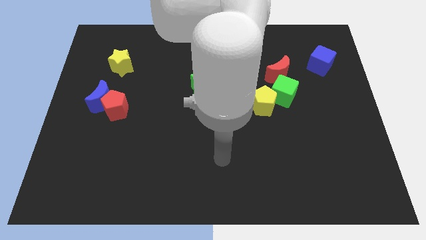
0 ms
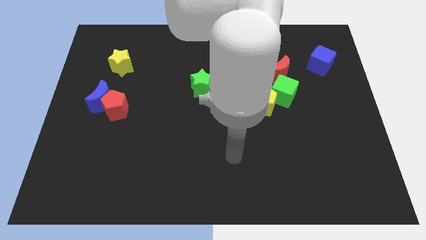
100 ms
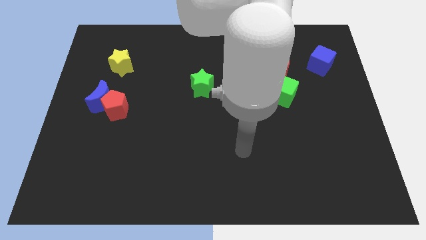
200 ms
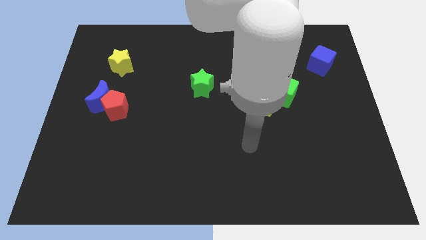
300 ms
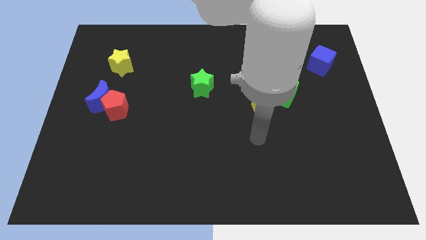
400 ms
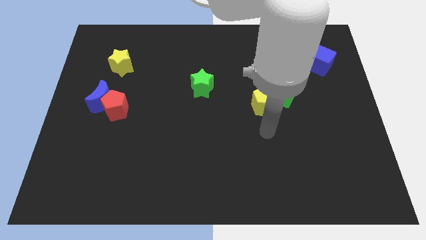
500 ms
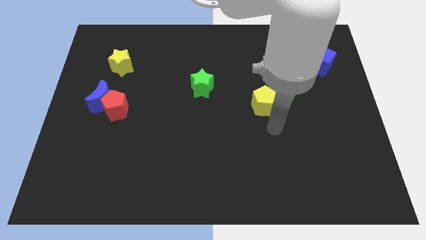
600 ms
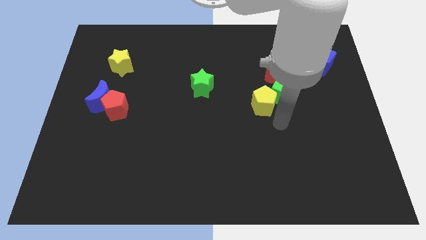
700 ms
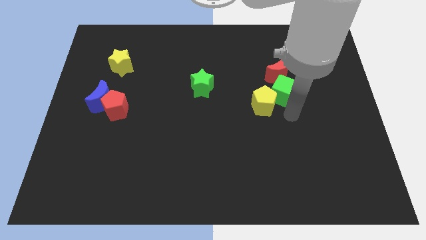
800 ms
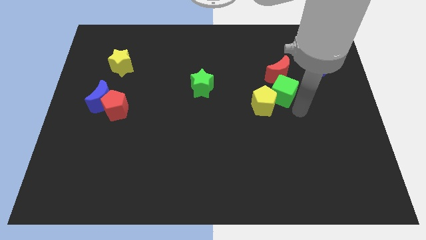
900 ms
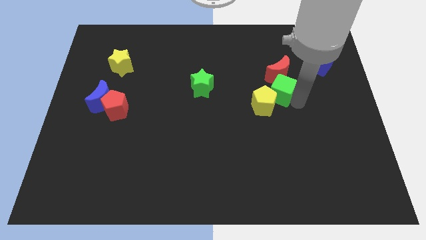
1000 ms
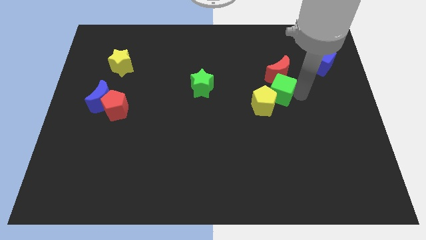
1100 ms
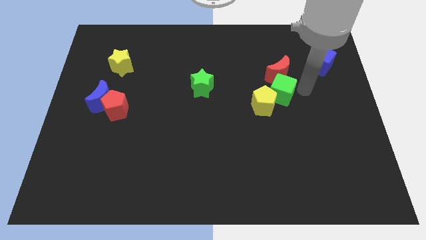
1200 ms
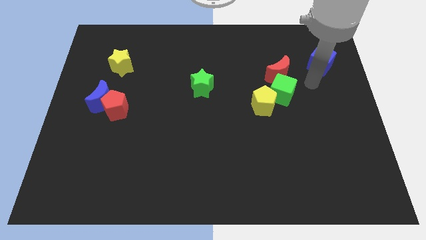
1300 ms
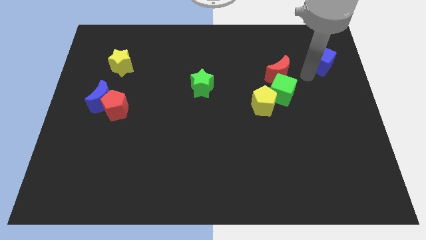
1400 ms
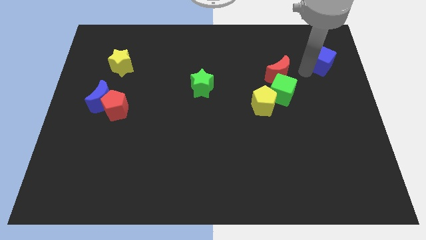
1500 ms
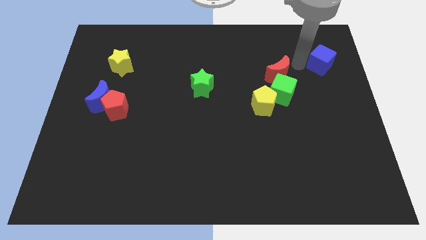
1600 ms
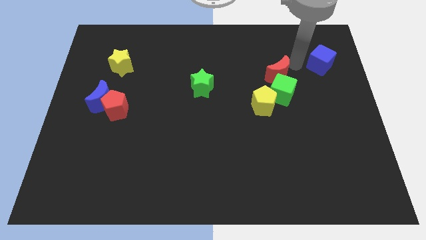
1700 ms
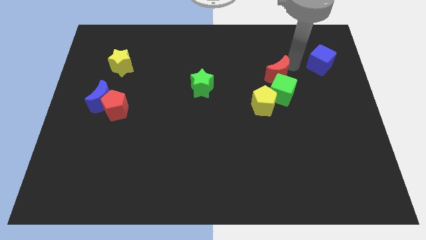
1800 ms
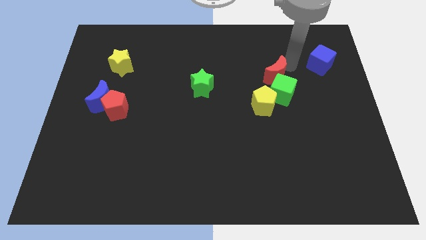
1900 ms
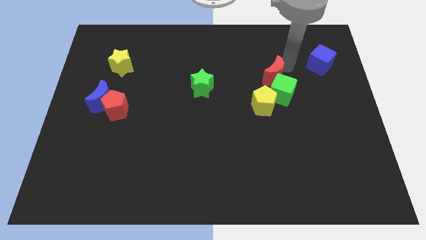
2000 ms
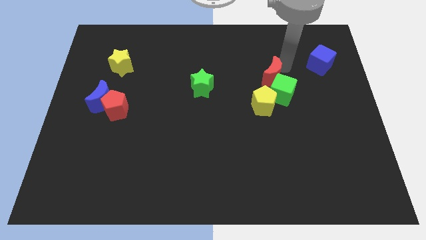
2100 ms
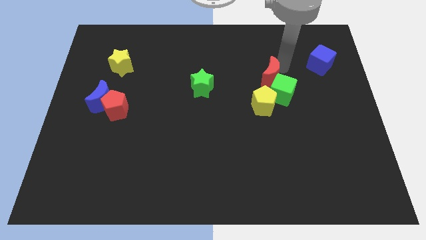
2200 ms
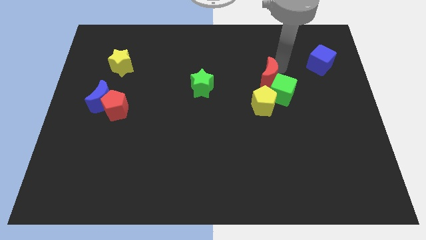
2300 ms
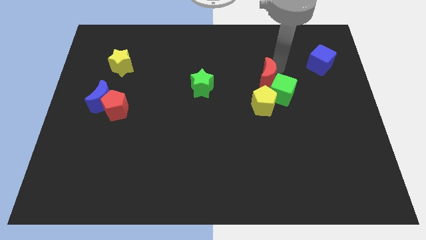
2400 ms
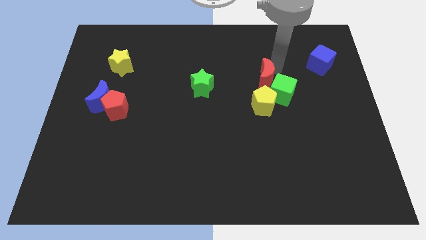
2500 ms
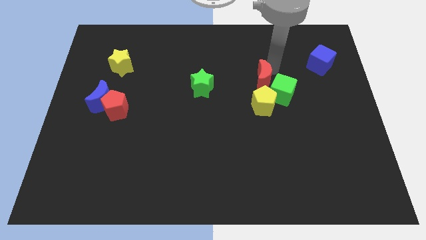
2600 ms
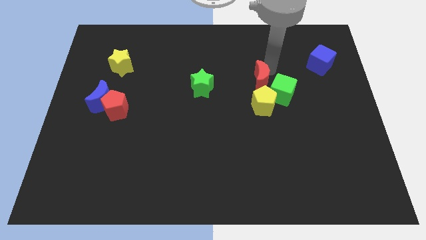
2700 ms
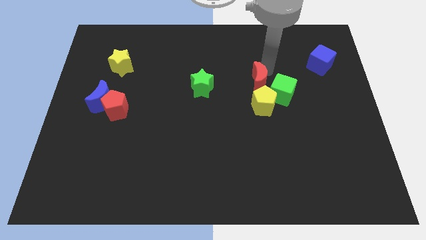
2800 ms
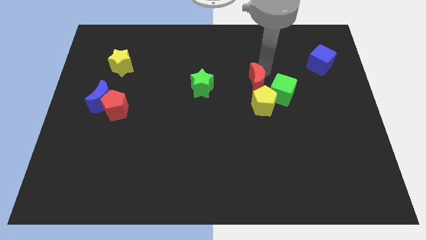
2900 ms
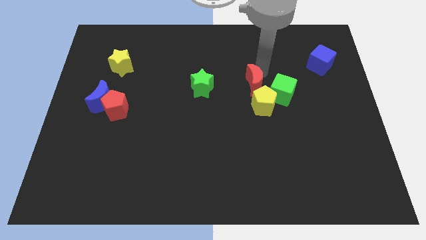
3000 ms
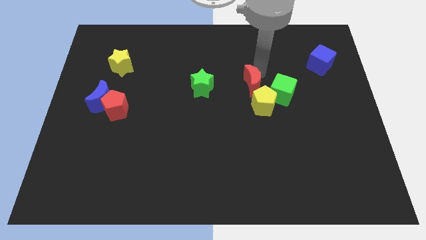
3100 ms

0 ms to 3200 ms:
slightly push the red moon down and to the left

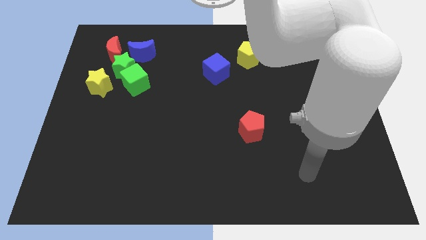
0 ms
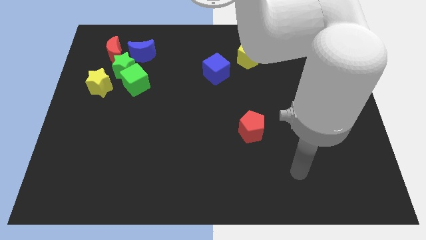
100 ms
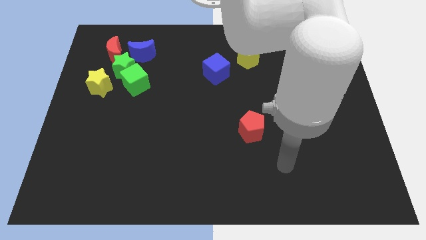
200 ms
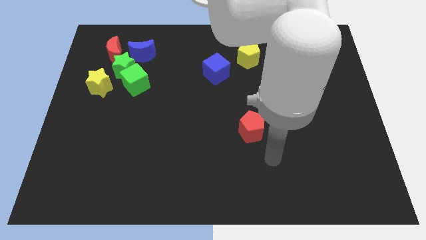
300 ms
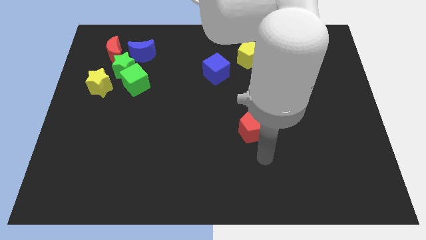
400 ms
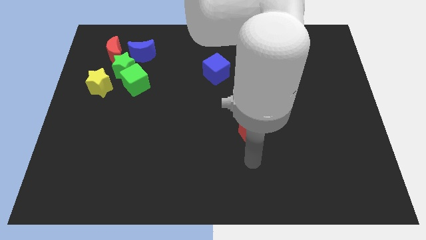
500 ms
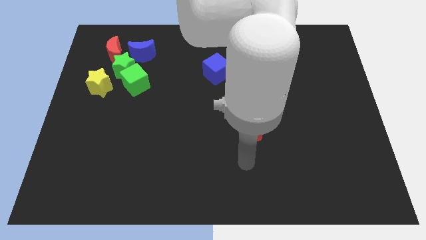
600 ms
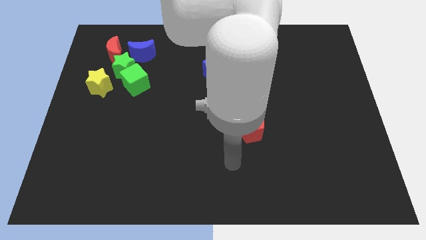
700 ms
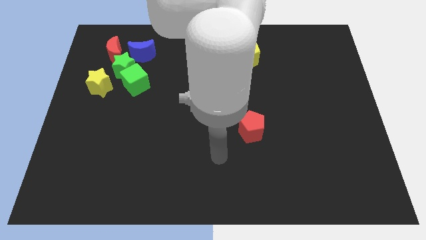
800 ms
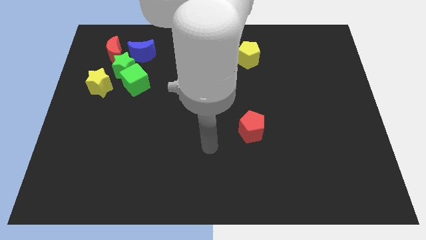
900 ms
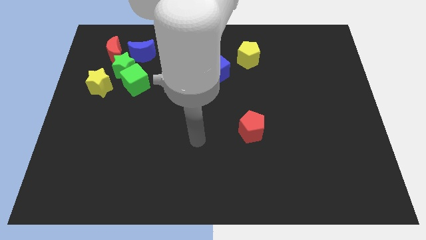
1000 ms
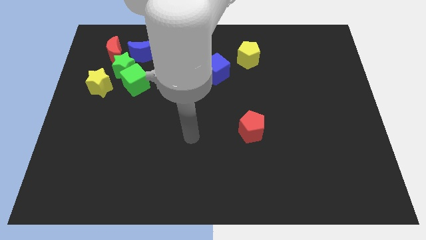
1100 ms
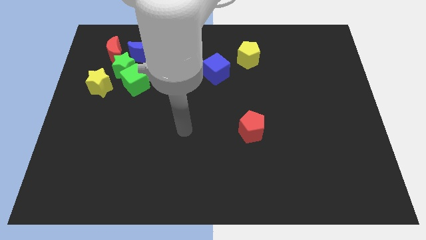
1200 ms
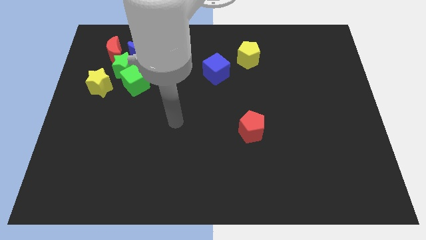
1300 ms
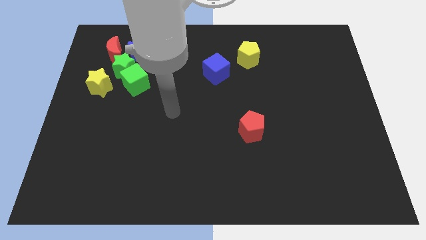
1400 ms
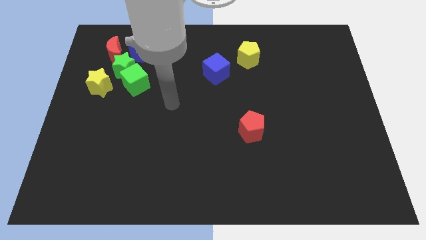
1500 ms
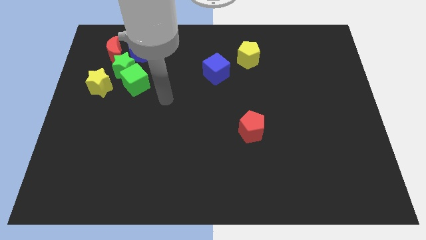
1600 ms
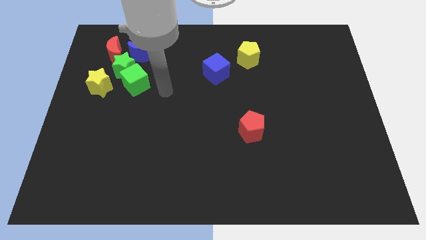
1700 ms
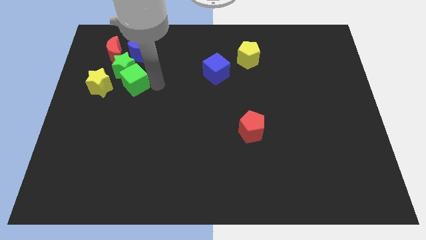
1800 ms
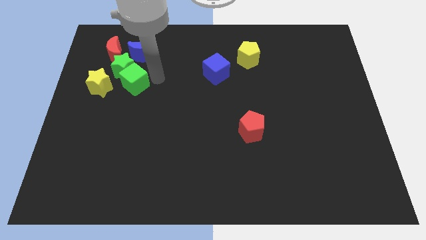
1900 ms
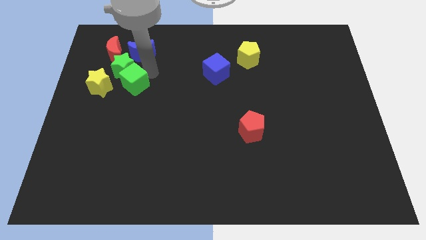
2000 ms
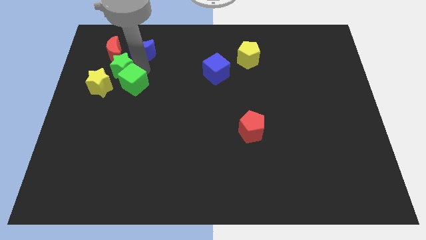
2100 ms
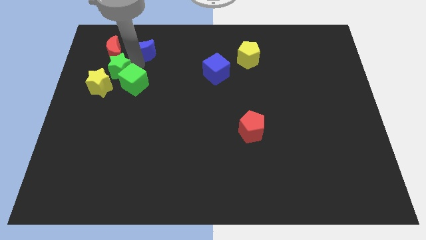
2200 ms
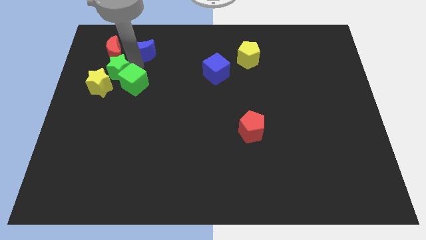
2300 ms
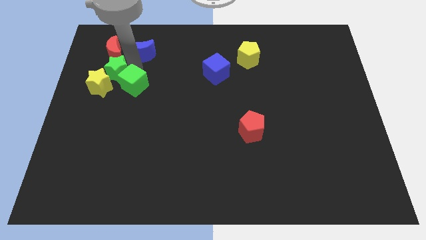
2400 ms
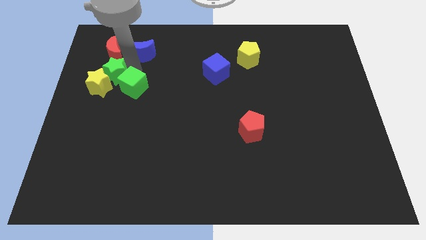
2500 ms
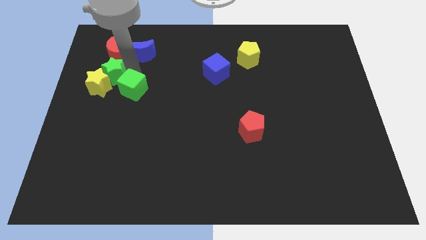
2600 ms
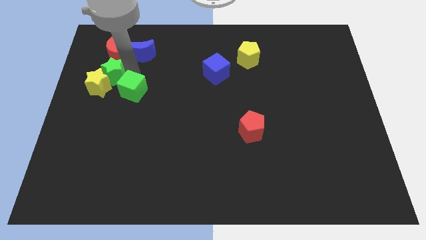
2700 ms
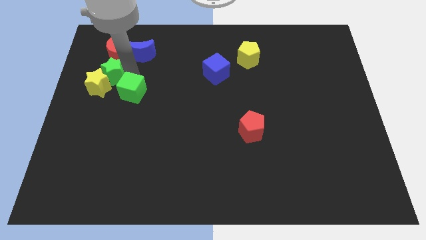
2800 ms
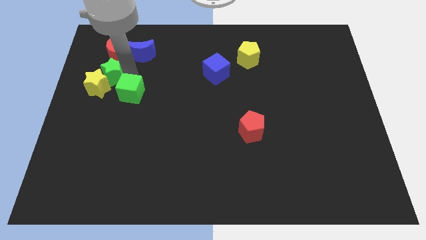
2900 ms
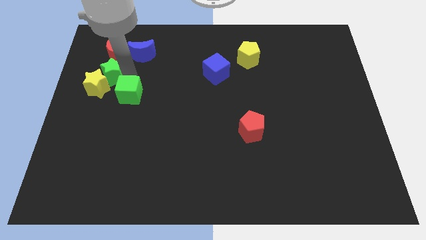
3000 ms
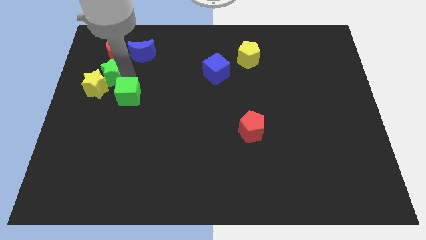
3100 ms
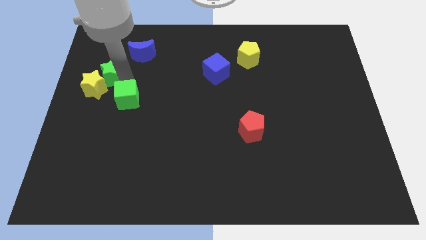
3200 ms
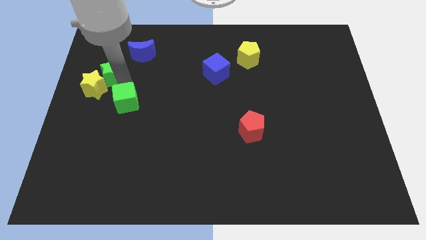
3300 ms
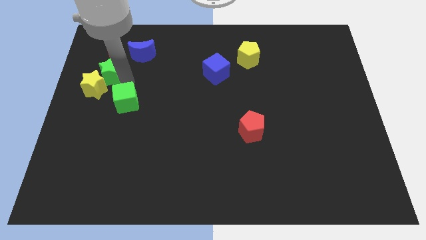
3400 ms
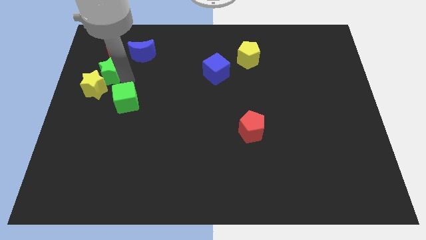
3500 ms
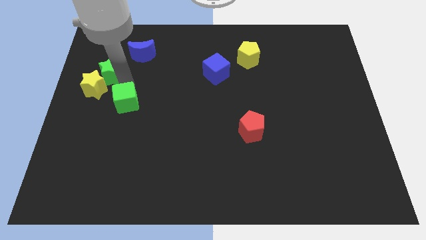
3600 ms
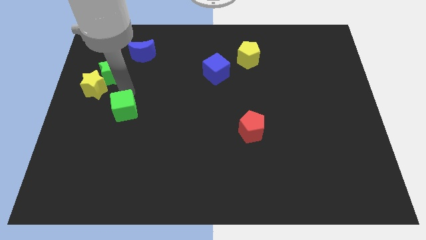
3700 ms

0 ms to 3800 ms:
slightly slide the green cube down

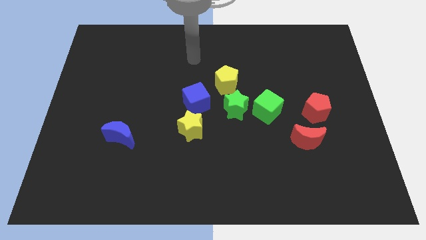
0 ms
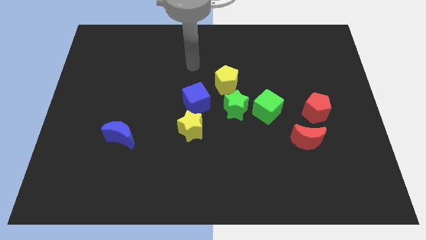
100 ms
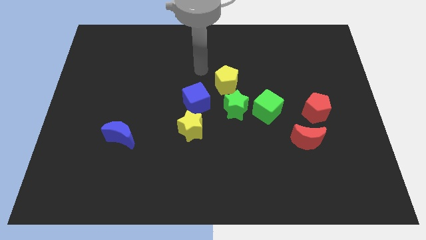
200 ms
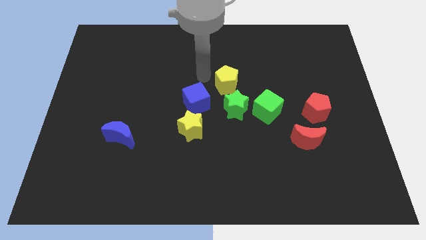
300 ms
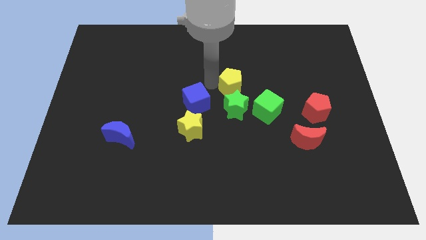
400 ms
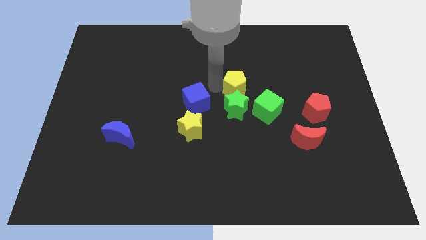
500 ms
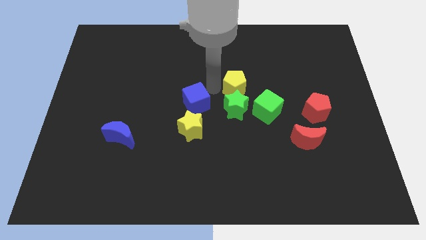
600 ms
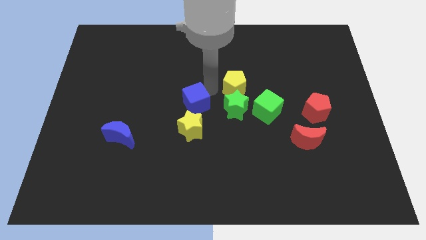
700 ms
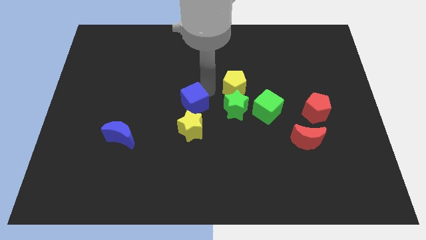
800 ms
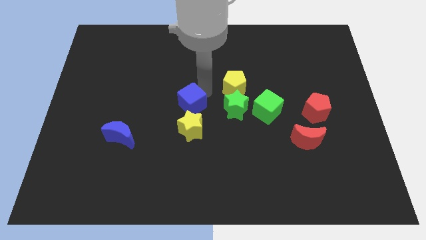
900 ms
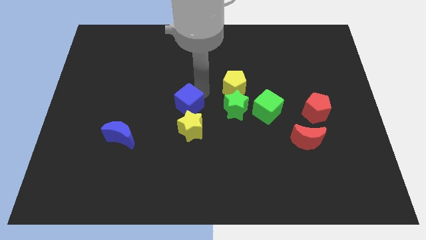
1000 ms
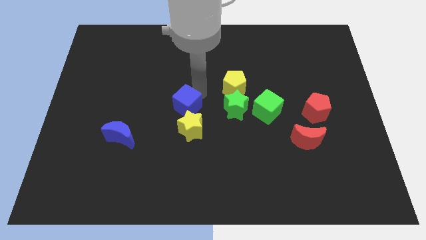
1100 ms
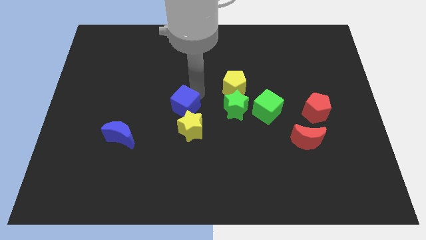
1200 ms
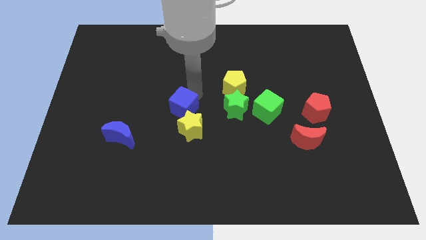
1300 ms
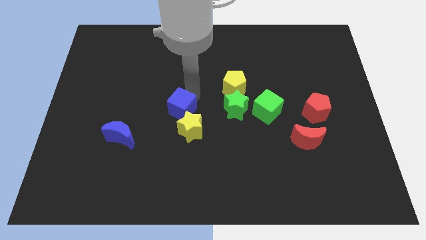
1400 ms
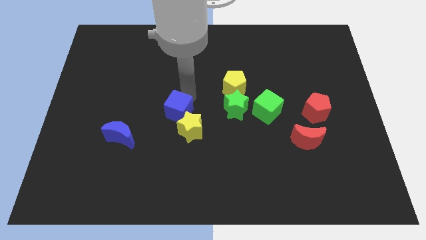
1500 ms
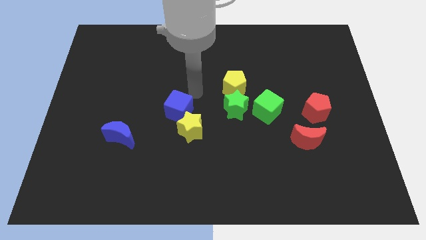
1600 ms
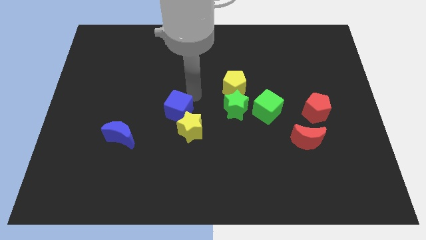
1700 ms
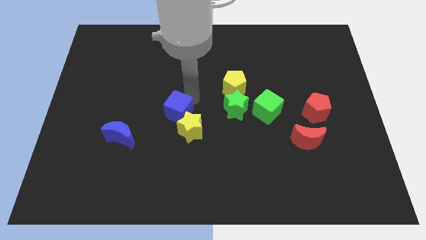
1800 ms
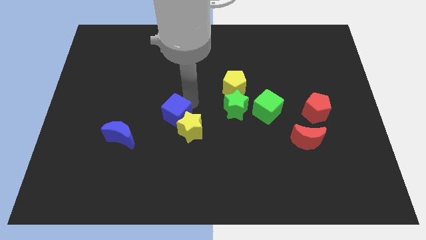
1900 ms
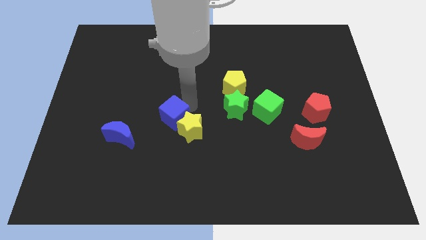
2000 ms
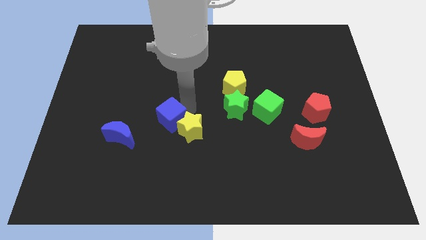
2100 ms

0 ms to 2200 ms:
move the blue cube somewhat down and left diagonally
